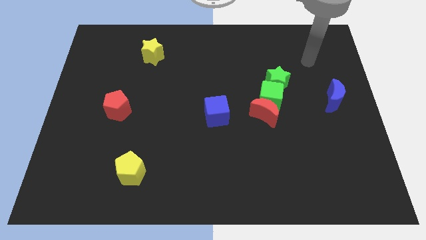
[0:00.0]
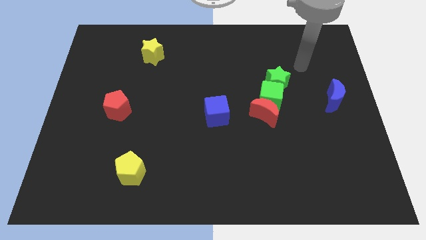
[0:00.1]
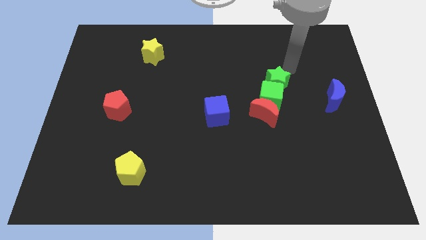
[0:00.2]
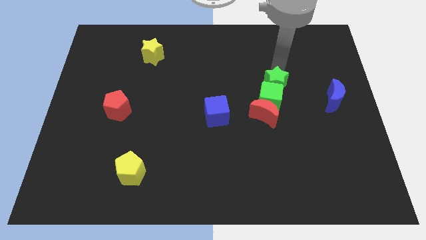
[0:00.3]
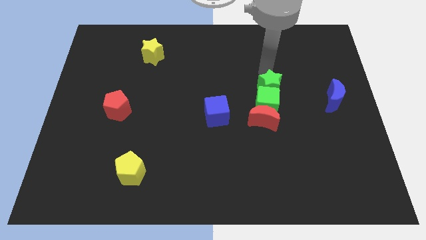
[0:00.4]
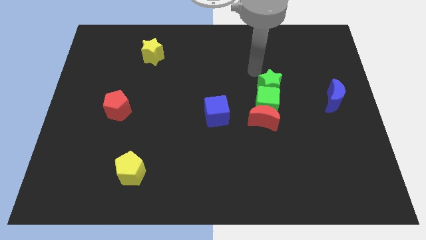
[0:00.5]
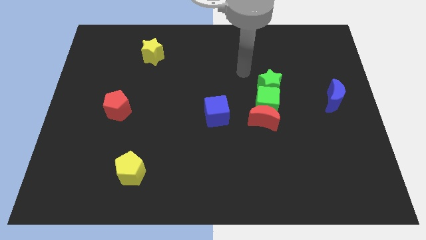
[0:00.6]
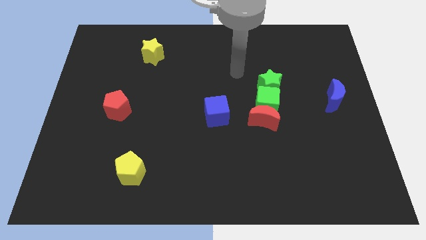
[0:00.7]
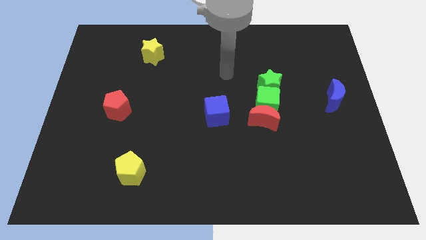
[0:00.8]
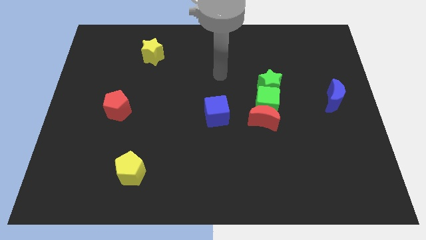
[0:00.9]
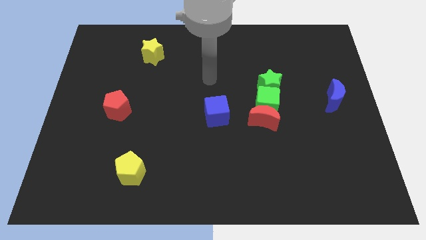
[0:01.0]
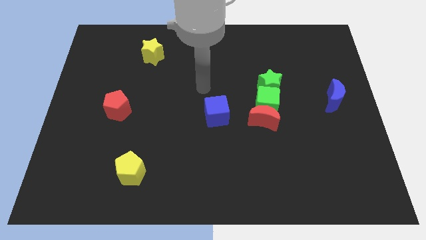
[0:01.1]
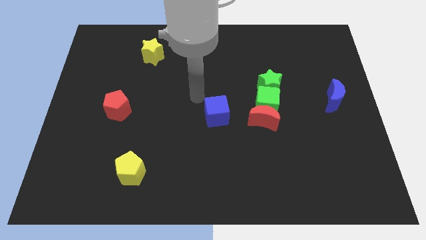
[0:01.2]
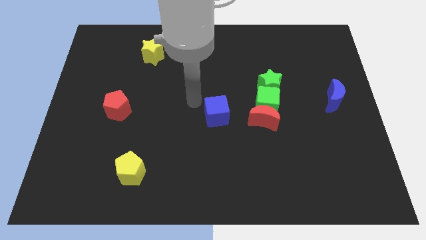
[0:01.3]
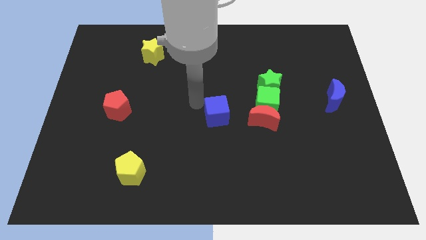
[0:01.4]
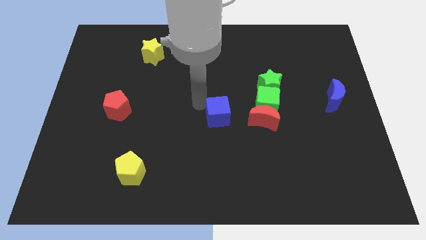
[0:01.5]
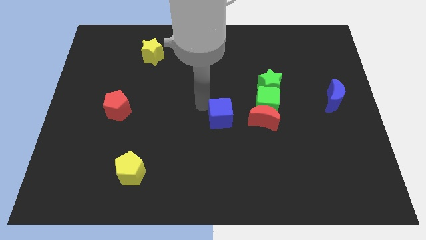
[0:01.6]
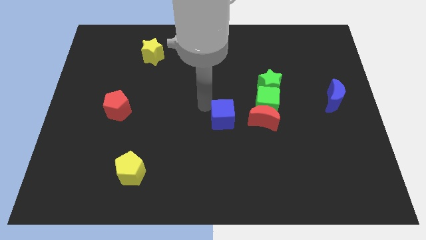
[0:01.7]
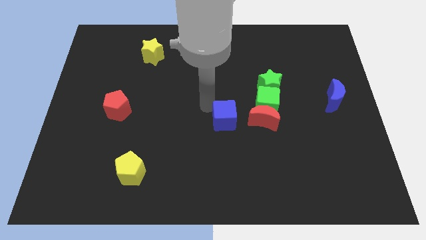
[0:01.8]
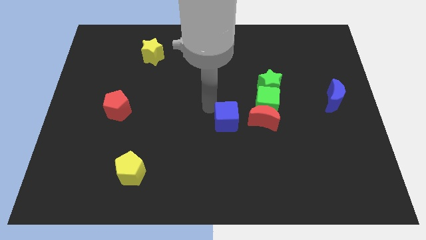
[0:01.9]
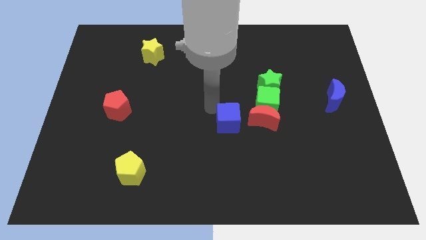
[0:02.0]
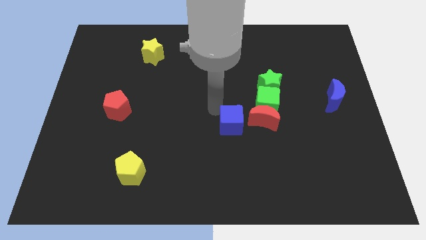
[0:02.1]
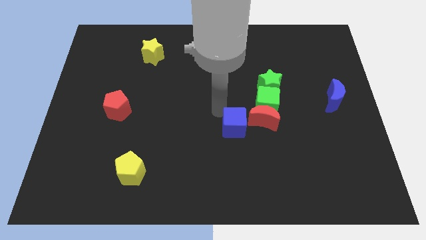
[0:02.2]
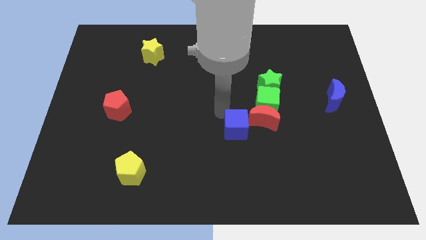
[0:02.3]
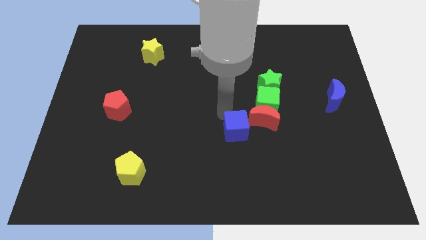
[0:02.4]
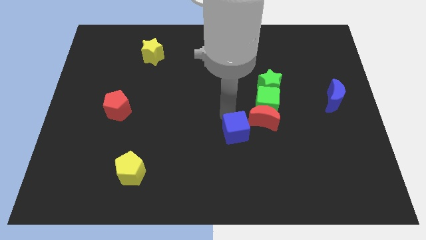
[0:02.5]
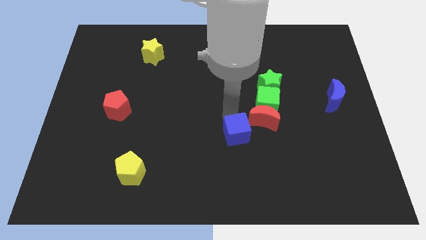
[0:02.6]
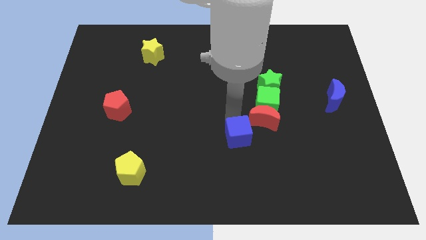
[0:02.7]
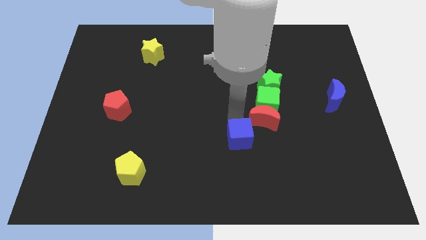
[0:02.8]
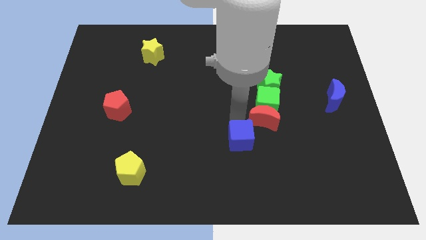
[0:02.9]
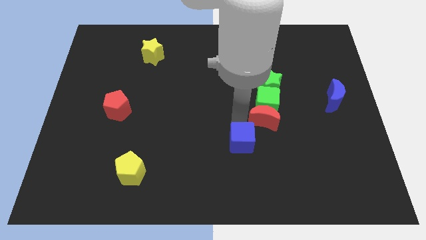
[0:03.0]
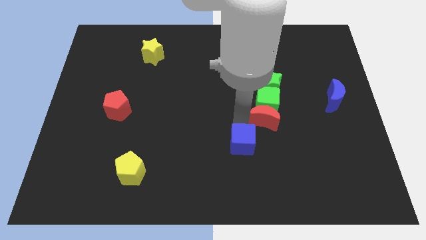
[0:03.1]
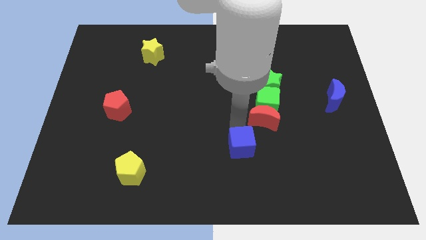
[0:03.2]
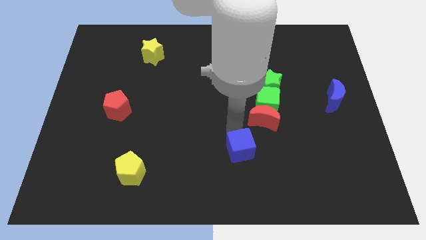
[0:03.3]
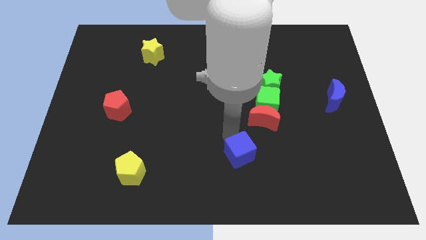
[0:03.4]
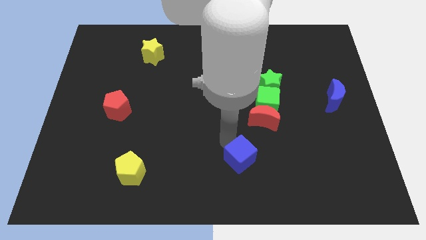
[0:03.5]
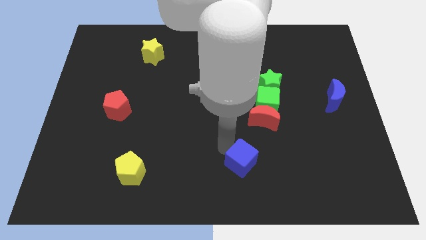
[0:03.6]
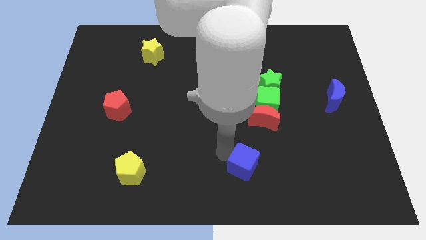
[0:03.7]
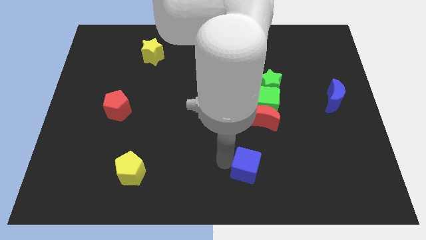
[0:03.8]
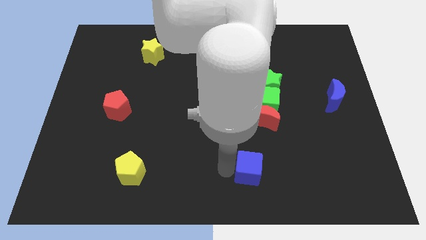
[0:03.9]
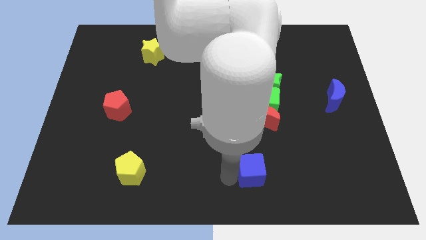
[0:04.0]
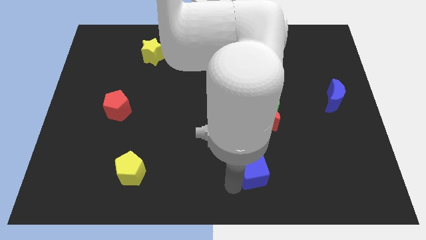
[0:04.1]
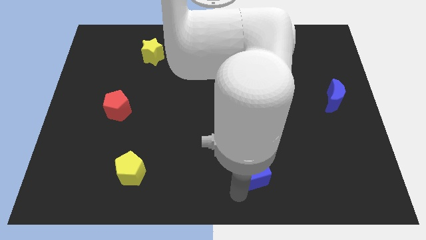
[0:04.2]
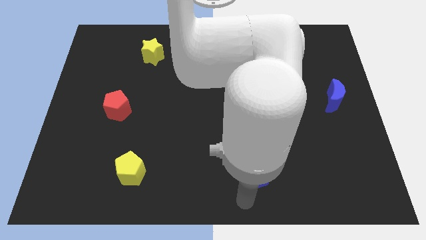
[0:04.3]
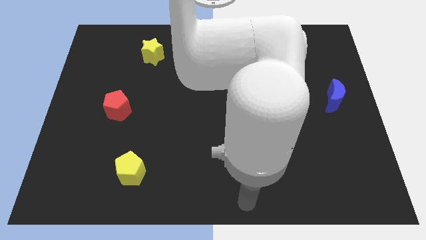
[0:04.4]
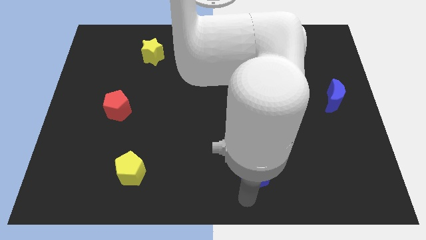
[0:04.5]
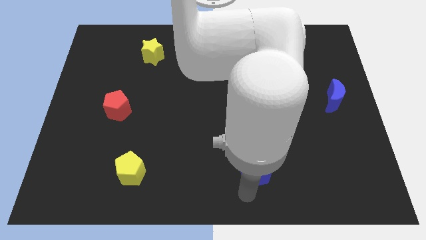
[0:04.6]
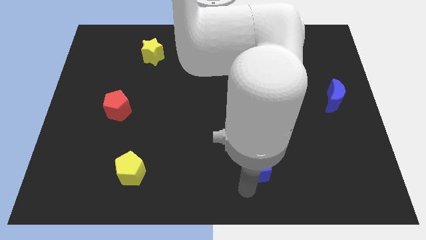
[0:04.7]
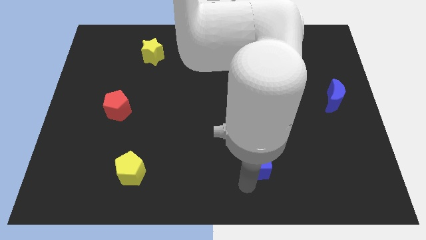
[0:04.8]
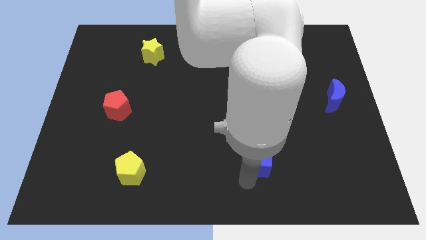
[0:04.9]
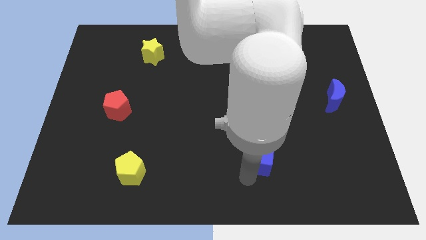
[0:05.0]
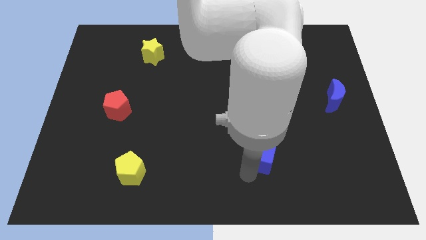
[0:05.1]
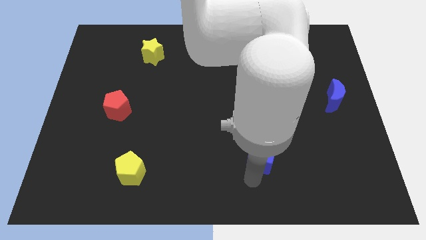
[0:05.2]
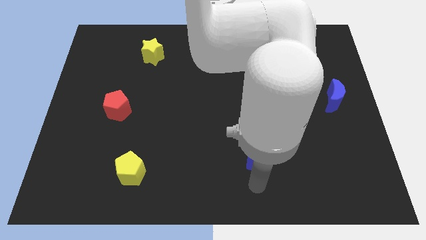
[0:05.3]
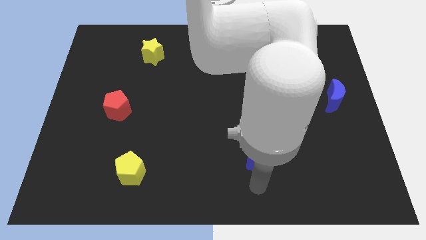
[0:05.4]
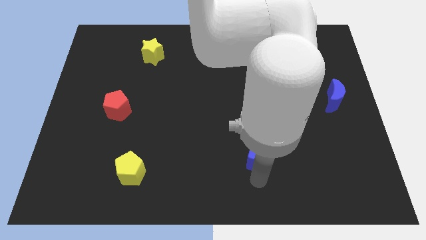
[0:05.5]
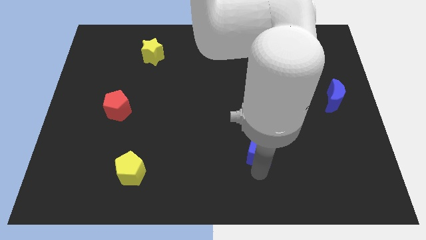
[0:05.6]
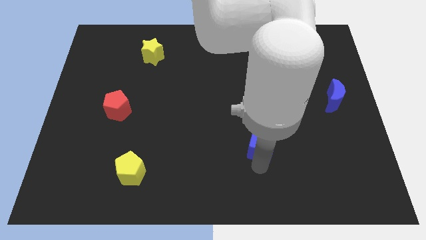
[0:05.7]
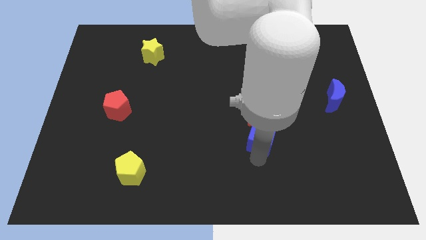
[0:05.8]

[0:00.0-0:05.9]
push the blue cube right slightly

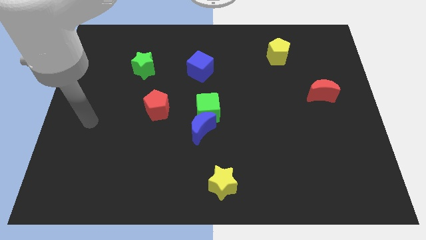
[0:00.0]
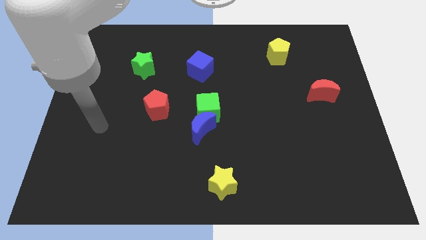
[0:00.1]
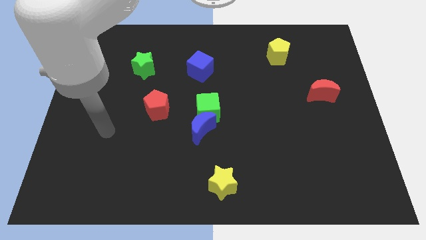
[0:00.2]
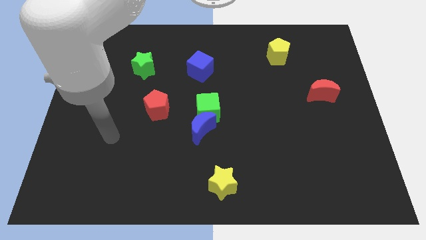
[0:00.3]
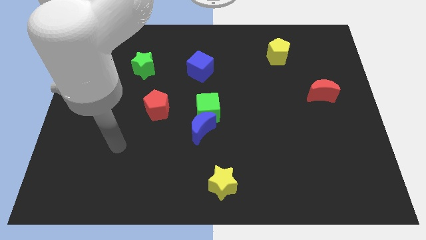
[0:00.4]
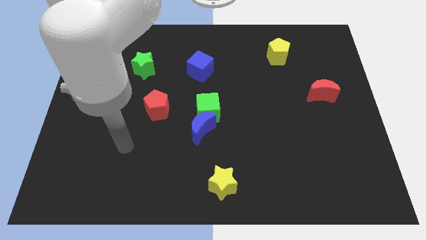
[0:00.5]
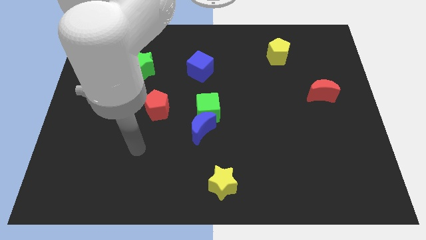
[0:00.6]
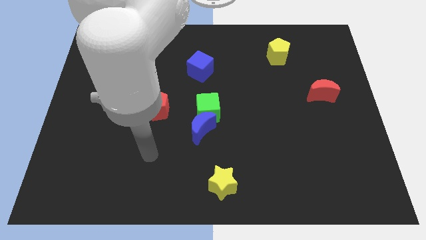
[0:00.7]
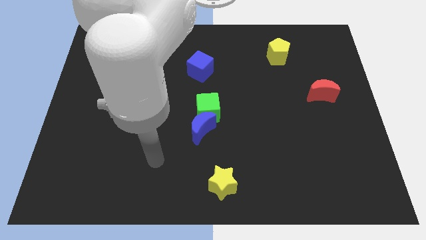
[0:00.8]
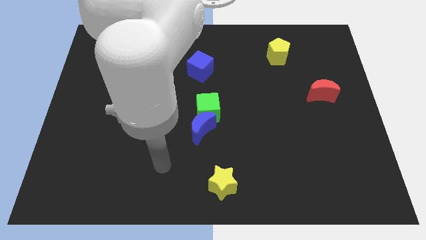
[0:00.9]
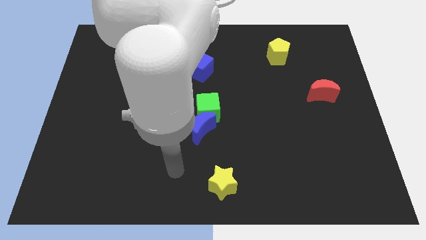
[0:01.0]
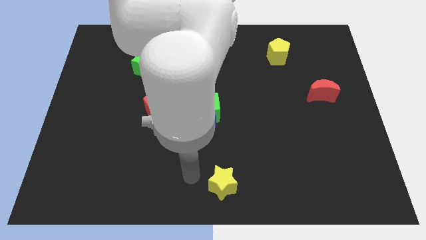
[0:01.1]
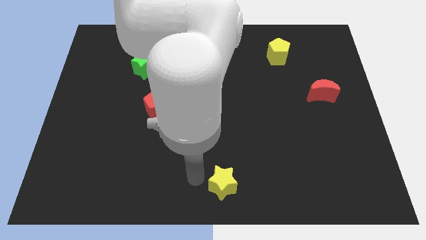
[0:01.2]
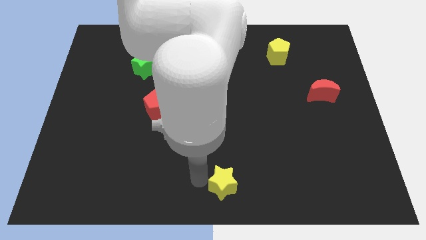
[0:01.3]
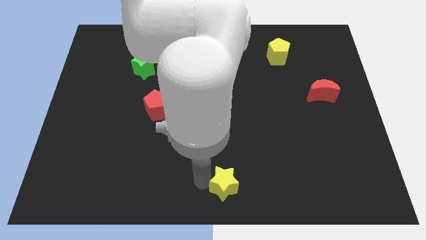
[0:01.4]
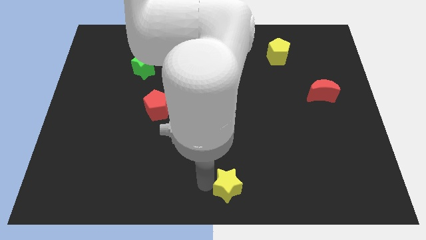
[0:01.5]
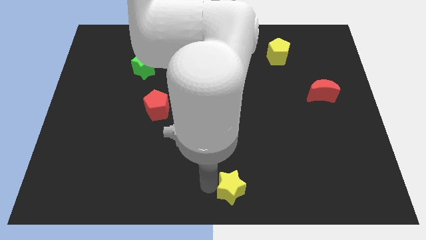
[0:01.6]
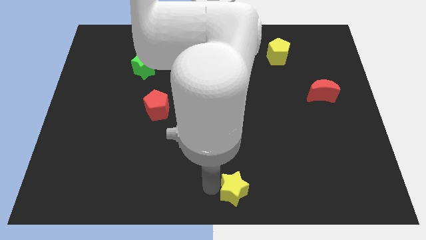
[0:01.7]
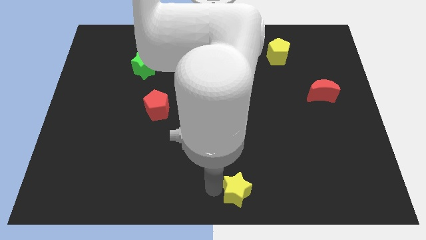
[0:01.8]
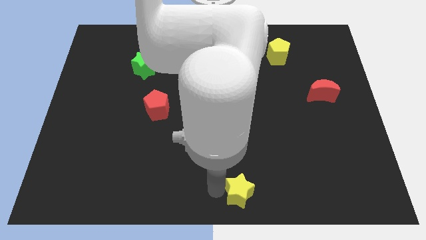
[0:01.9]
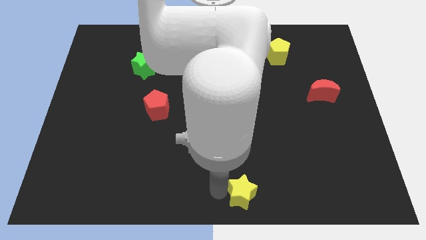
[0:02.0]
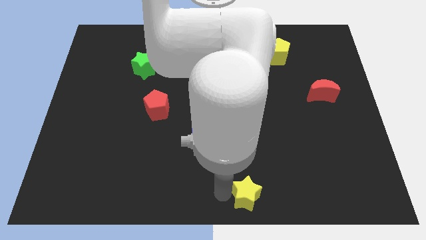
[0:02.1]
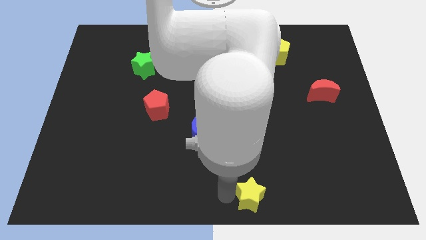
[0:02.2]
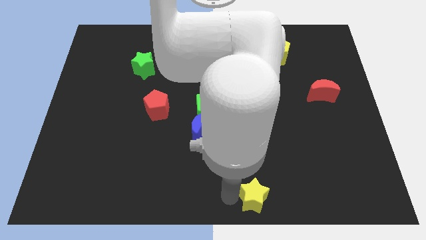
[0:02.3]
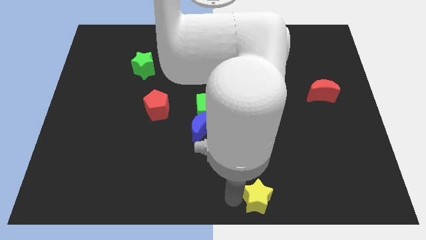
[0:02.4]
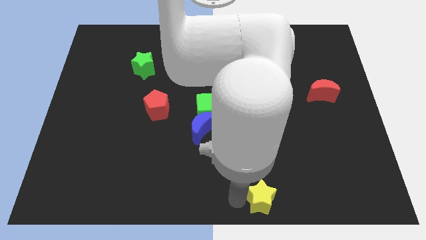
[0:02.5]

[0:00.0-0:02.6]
slightly slide the yellow star right

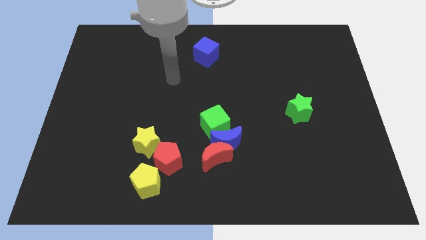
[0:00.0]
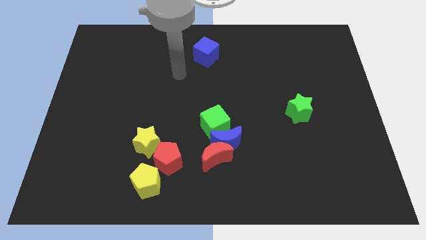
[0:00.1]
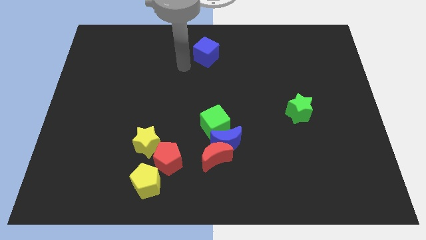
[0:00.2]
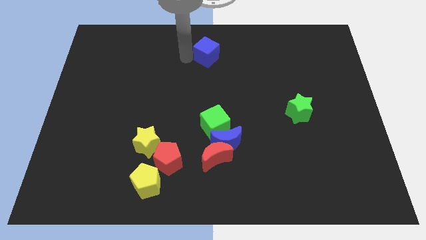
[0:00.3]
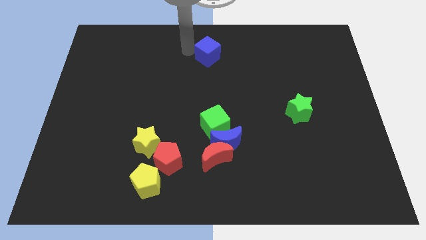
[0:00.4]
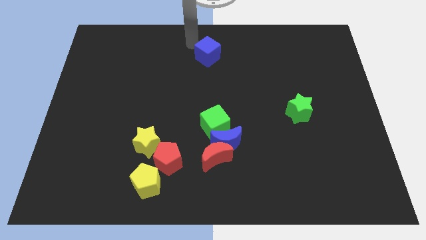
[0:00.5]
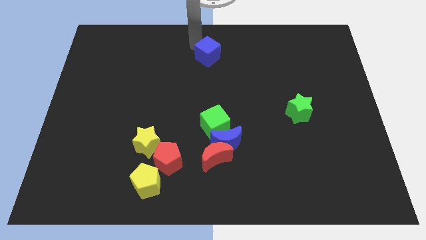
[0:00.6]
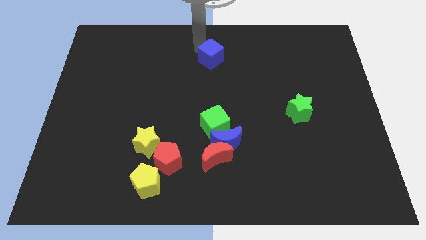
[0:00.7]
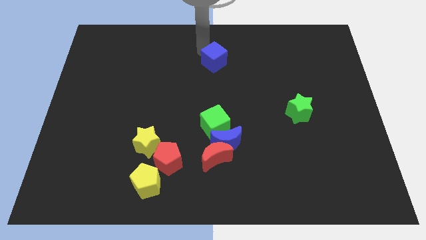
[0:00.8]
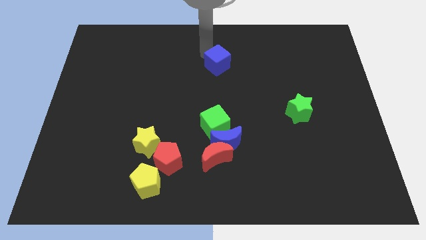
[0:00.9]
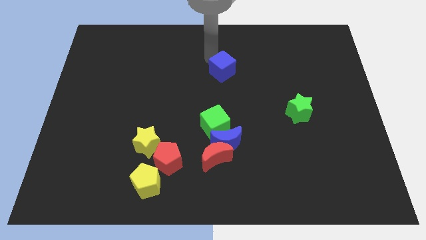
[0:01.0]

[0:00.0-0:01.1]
move the blue cube a little downwards and right diagonally
